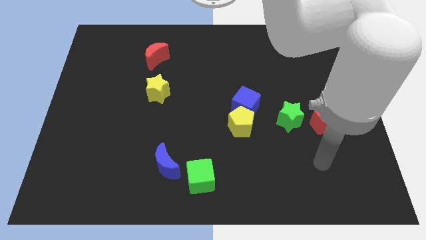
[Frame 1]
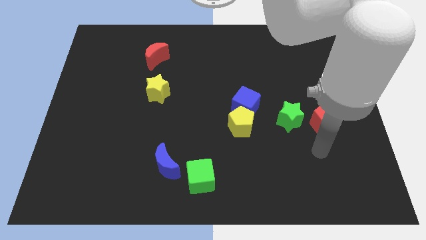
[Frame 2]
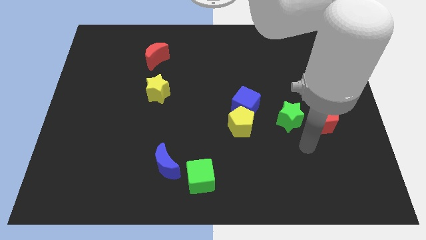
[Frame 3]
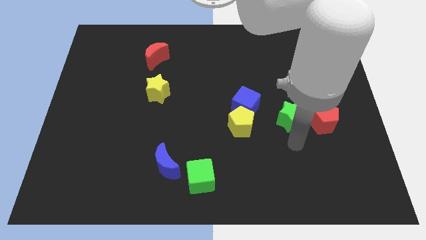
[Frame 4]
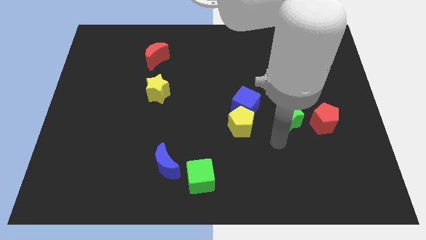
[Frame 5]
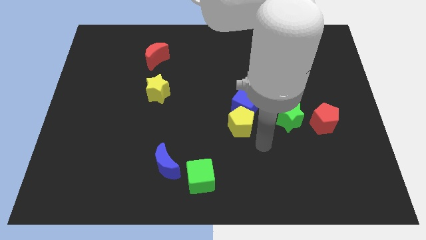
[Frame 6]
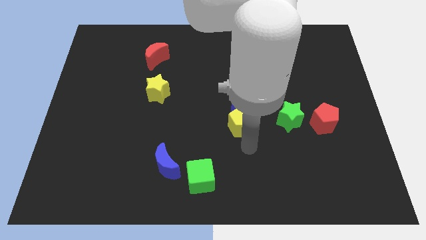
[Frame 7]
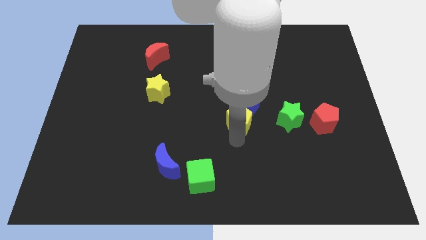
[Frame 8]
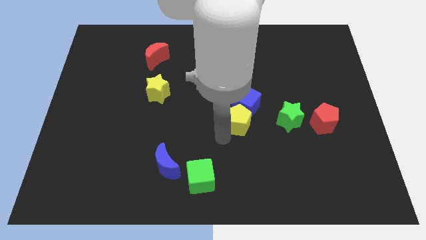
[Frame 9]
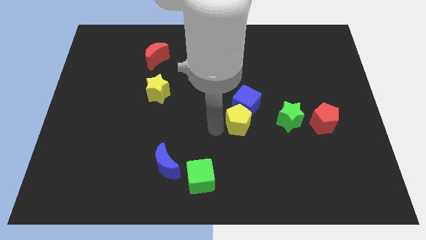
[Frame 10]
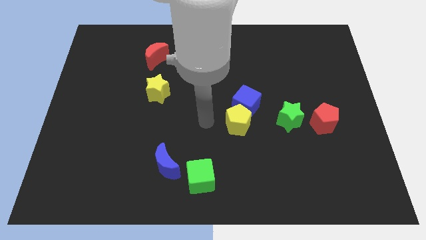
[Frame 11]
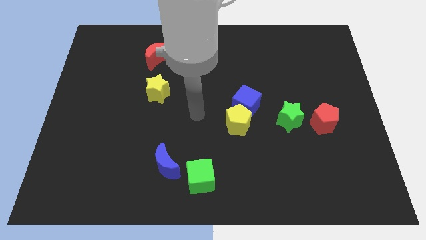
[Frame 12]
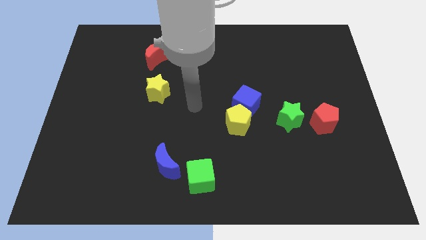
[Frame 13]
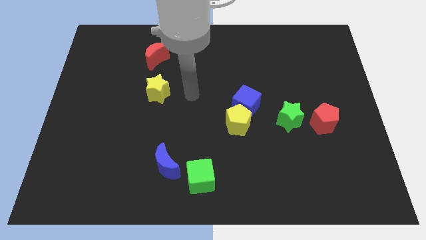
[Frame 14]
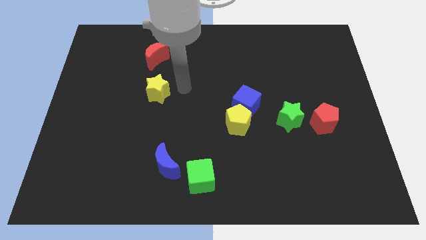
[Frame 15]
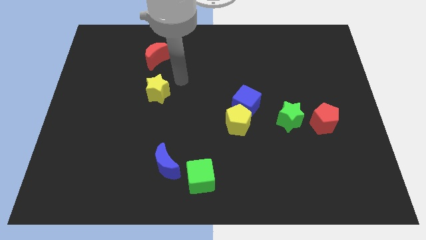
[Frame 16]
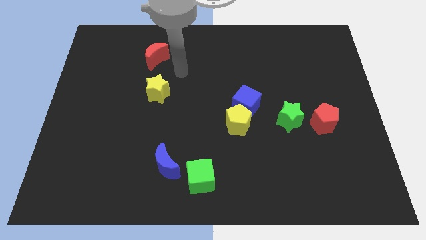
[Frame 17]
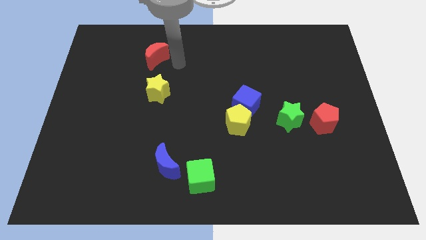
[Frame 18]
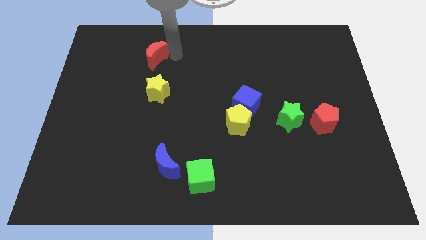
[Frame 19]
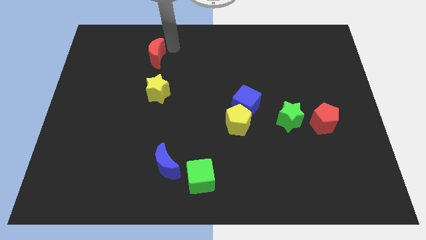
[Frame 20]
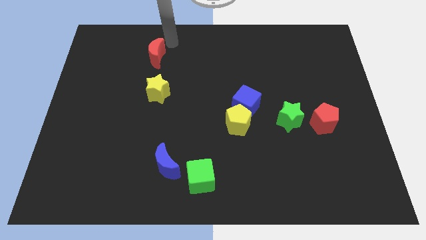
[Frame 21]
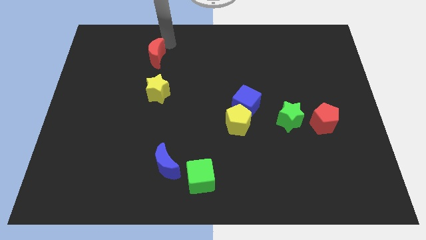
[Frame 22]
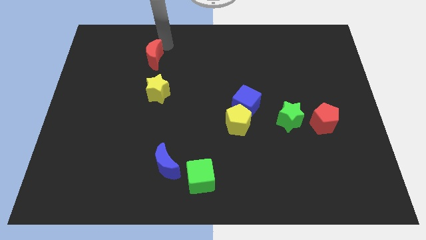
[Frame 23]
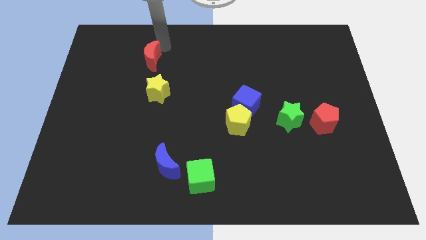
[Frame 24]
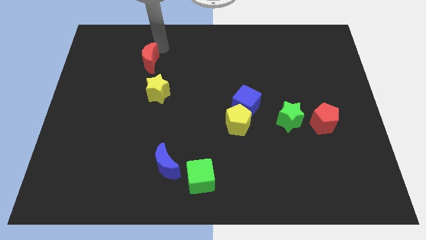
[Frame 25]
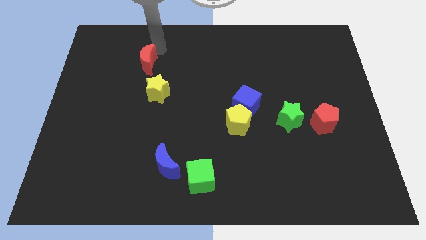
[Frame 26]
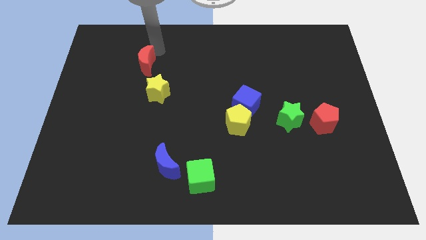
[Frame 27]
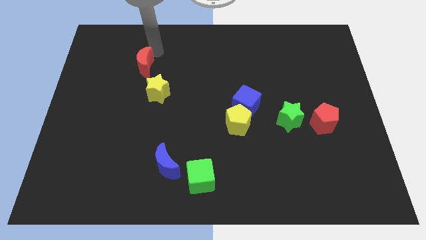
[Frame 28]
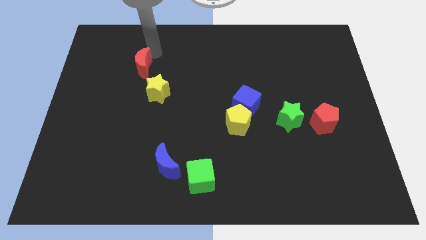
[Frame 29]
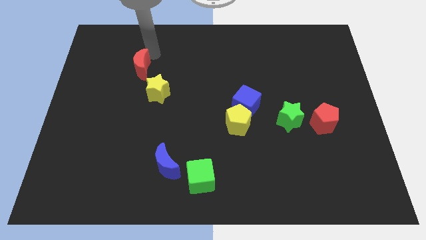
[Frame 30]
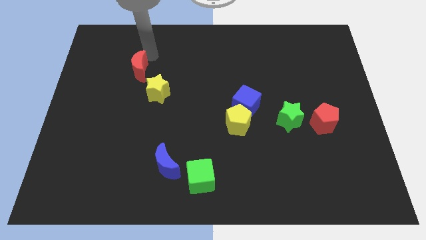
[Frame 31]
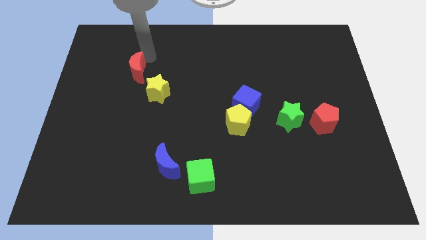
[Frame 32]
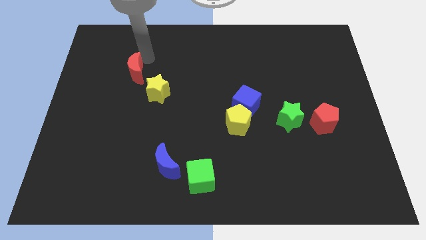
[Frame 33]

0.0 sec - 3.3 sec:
push the red moon diagonally downwards and left somewhat

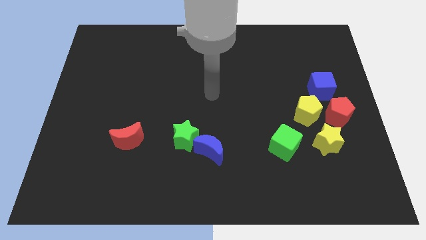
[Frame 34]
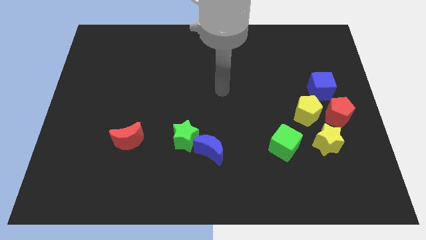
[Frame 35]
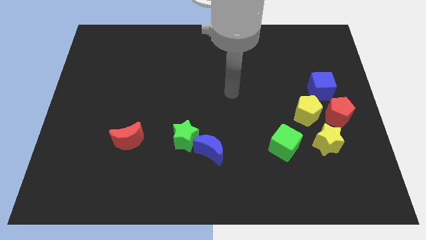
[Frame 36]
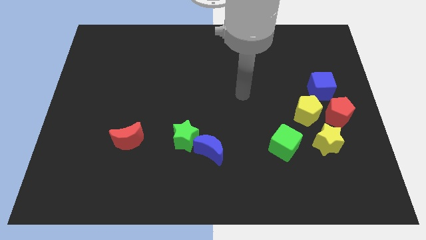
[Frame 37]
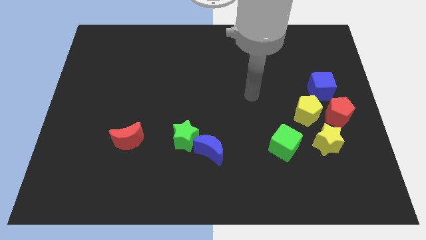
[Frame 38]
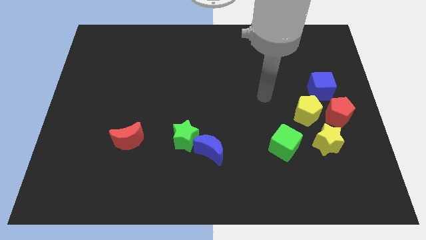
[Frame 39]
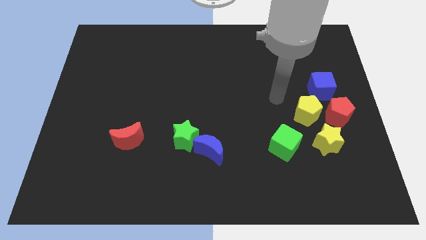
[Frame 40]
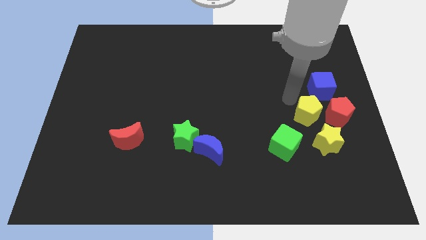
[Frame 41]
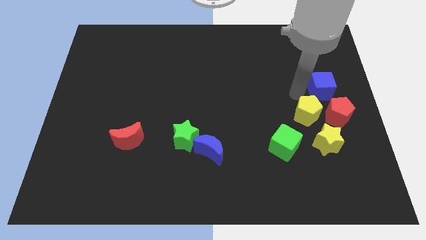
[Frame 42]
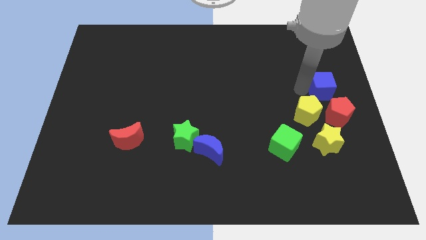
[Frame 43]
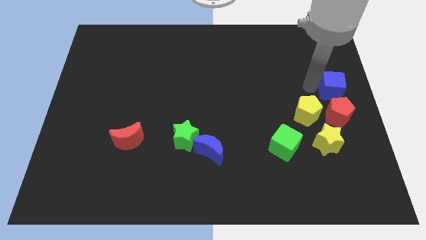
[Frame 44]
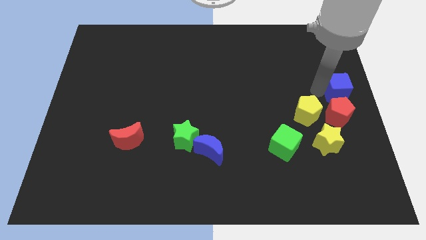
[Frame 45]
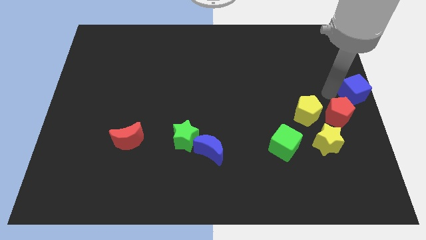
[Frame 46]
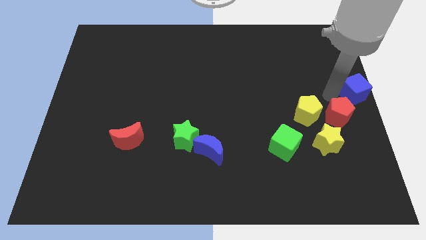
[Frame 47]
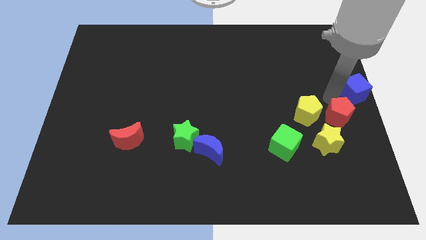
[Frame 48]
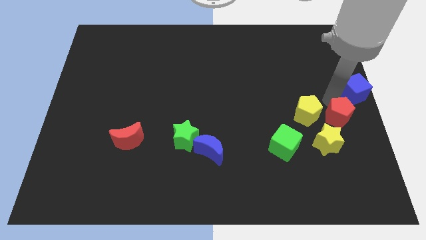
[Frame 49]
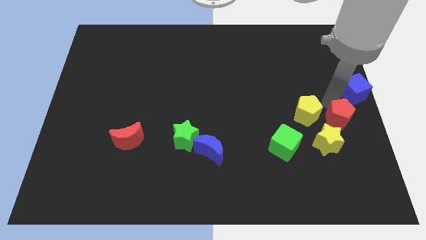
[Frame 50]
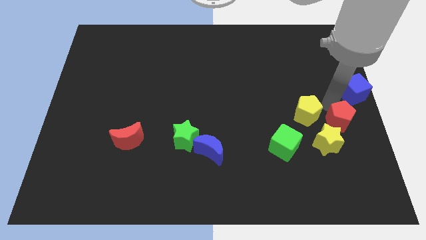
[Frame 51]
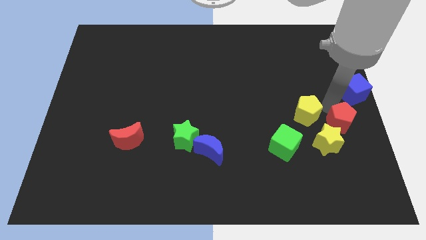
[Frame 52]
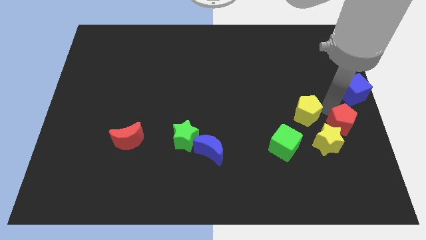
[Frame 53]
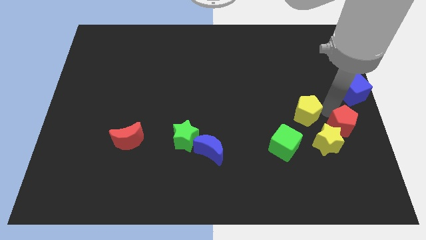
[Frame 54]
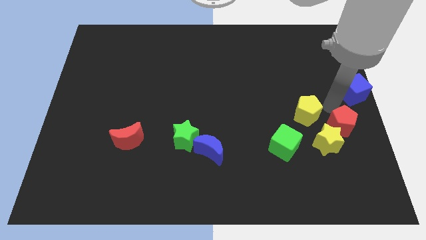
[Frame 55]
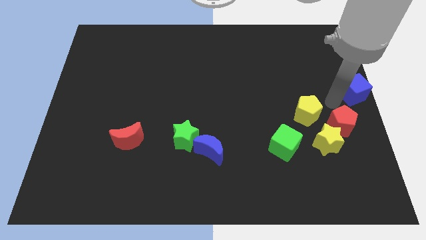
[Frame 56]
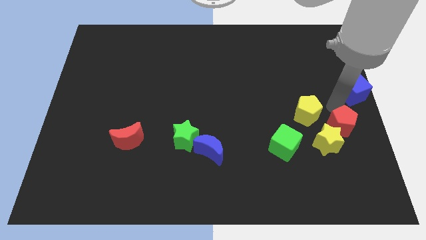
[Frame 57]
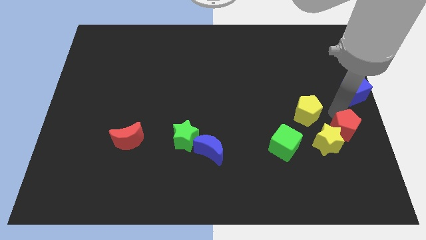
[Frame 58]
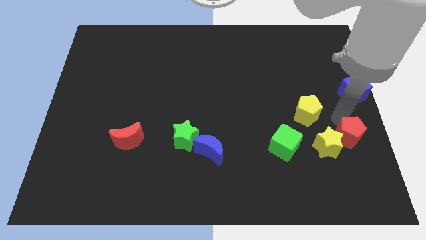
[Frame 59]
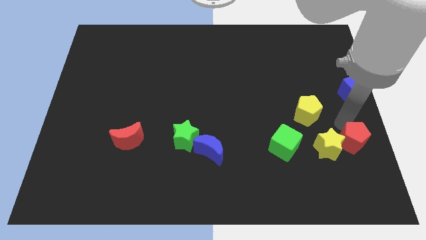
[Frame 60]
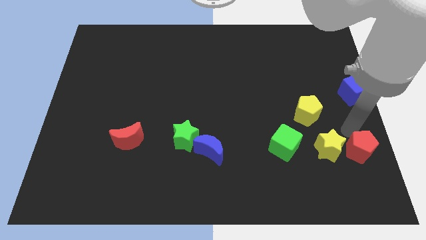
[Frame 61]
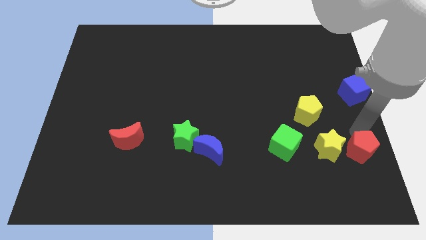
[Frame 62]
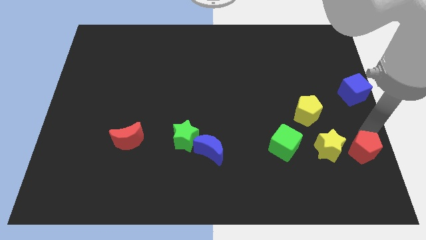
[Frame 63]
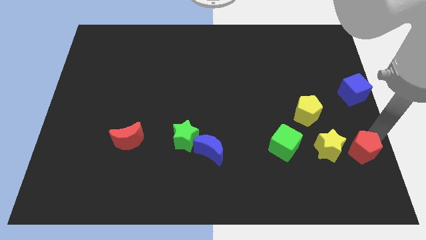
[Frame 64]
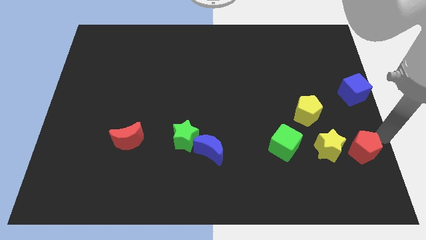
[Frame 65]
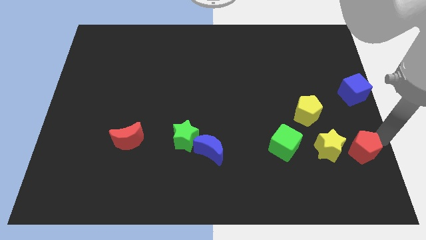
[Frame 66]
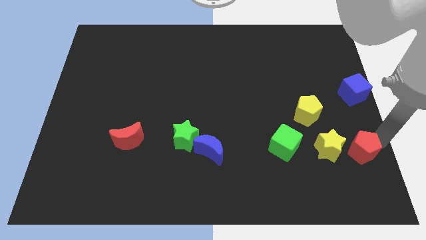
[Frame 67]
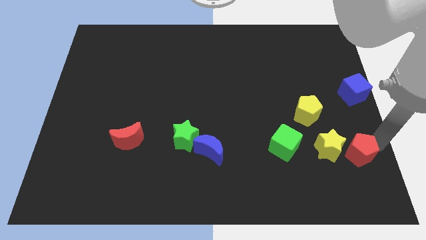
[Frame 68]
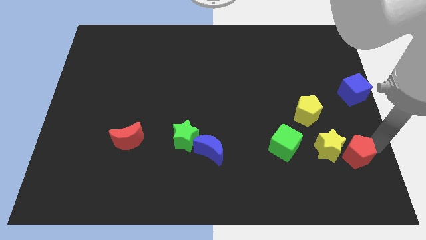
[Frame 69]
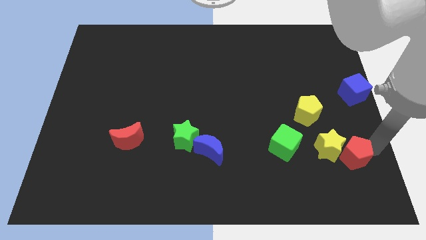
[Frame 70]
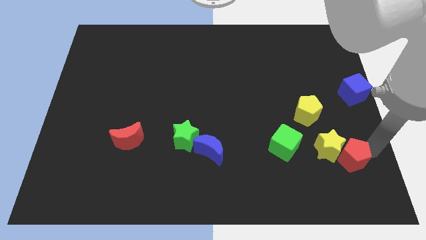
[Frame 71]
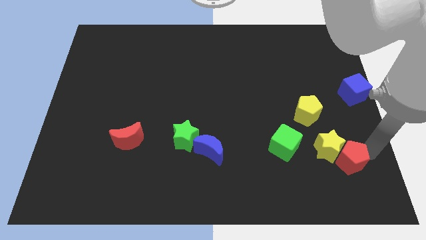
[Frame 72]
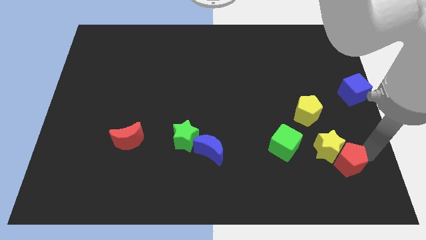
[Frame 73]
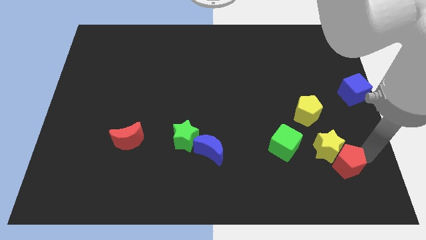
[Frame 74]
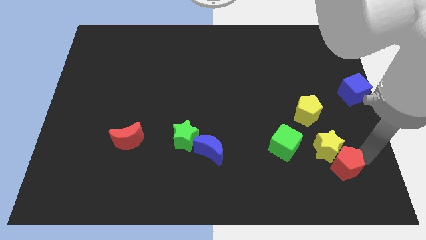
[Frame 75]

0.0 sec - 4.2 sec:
slide the red pentagon downwards and then to the left a little
